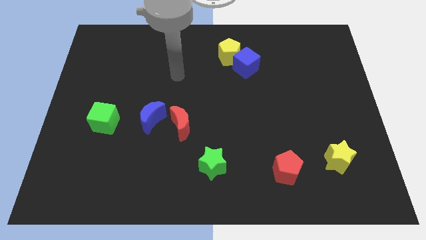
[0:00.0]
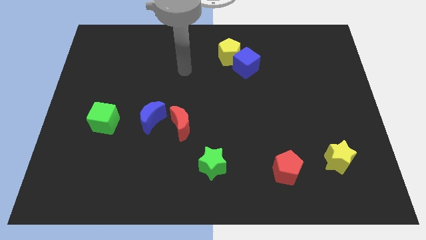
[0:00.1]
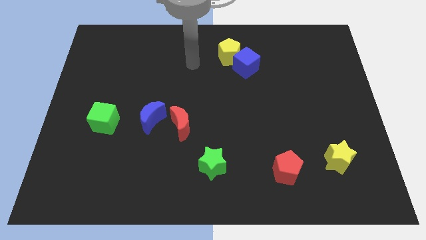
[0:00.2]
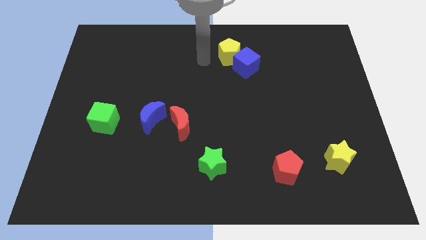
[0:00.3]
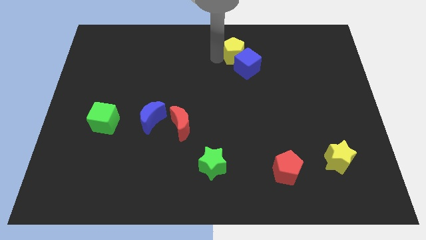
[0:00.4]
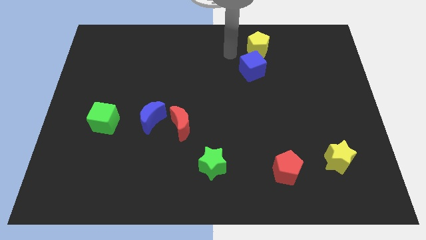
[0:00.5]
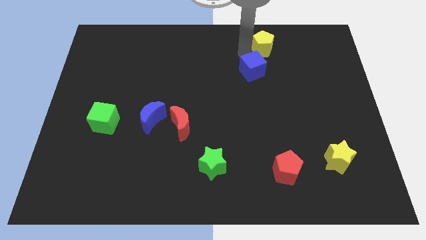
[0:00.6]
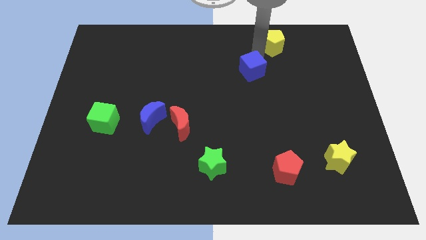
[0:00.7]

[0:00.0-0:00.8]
move the blue cube away from the yellow pentagon

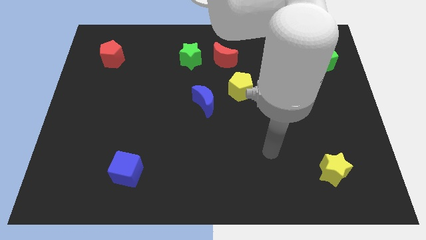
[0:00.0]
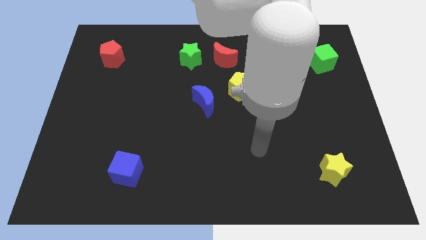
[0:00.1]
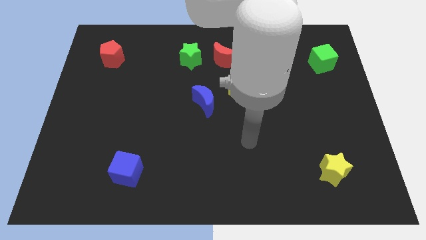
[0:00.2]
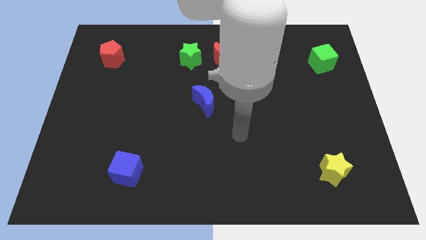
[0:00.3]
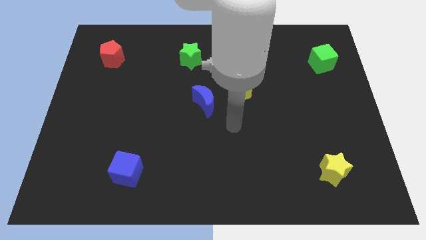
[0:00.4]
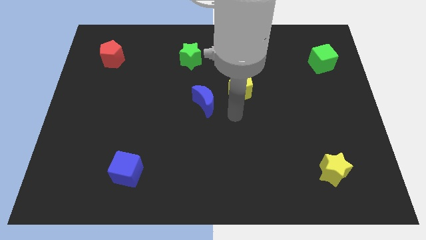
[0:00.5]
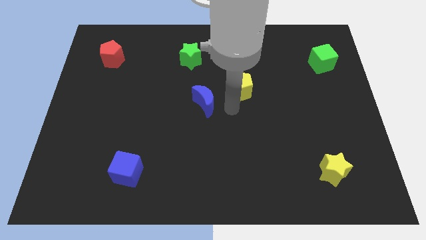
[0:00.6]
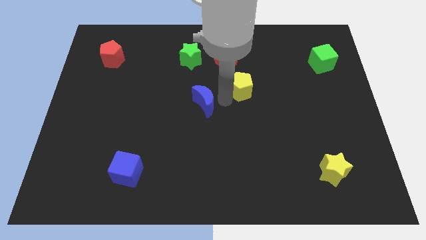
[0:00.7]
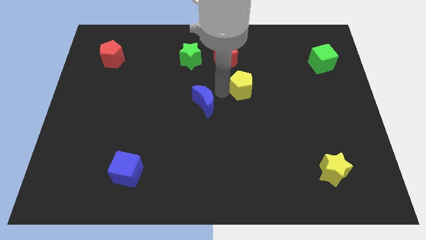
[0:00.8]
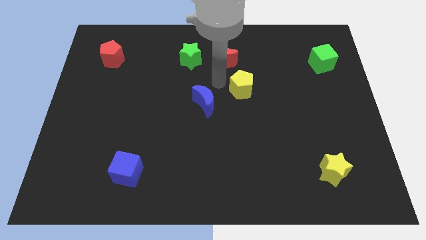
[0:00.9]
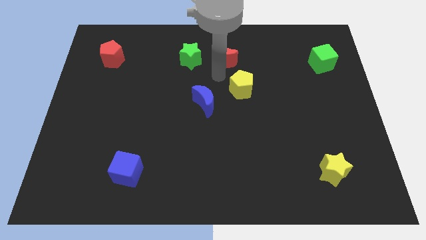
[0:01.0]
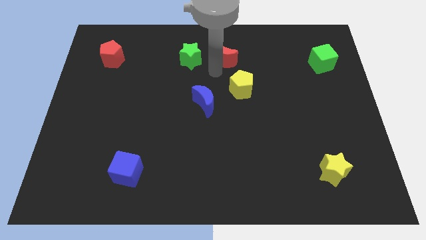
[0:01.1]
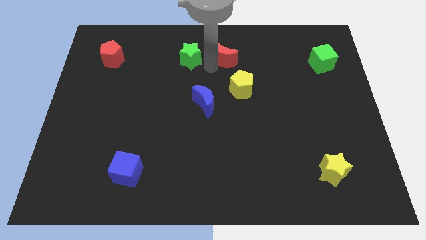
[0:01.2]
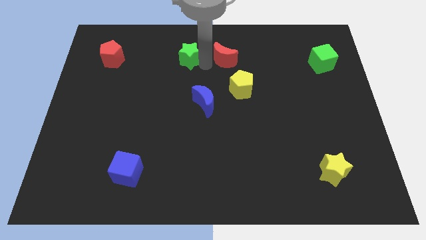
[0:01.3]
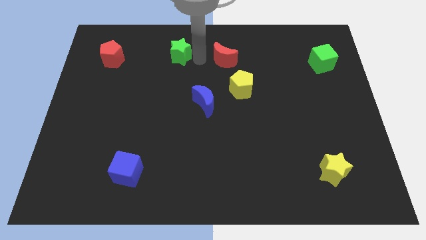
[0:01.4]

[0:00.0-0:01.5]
move the red moon away from the green star

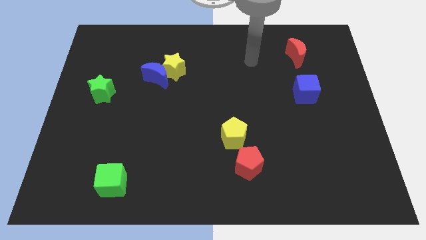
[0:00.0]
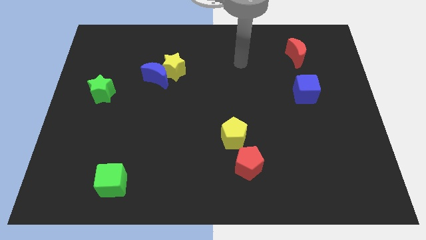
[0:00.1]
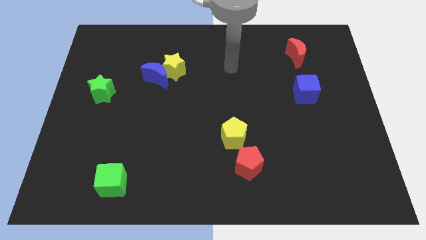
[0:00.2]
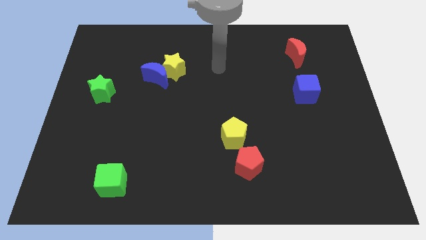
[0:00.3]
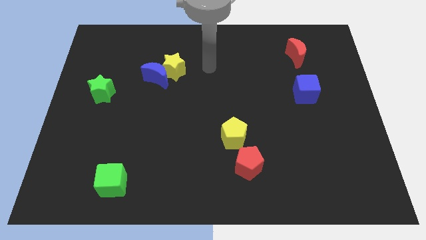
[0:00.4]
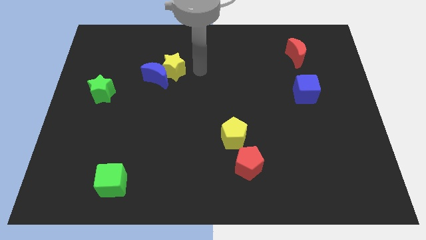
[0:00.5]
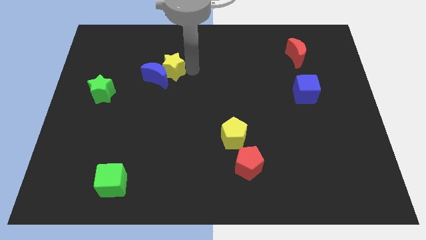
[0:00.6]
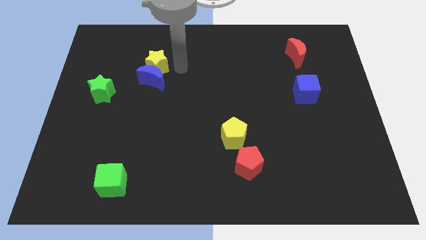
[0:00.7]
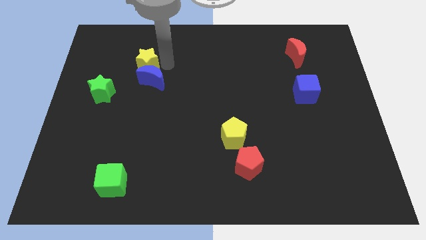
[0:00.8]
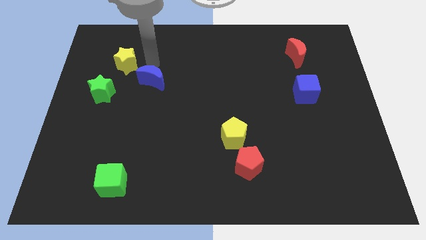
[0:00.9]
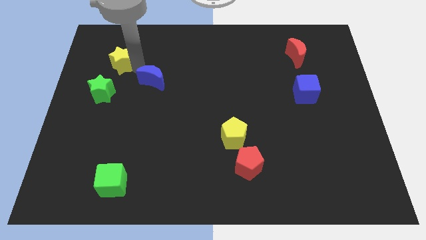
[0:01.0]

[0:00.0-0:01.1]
move the blue moon away from the yellow star

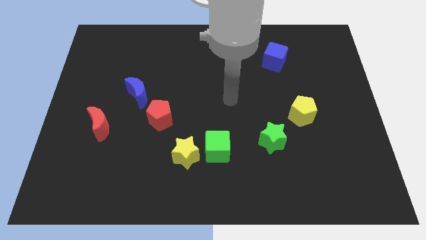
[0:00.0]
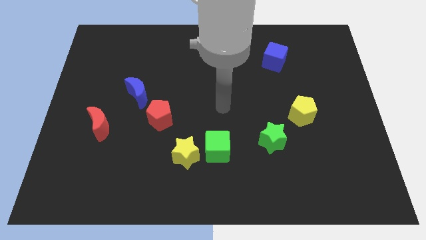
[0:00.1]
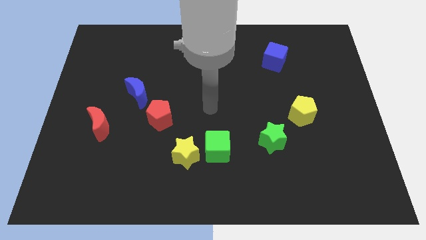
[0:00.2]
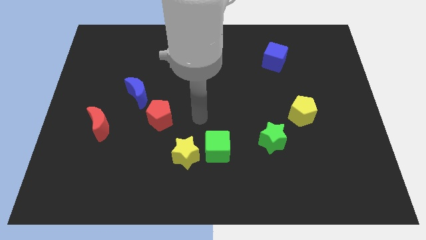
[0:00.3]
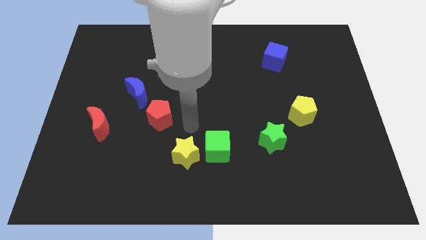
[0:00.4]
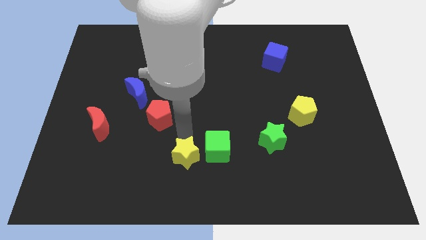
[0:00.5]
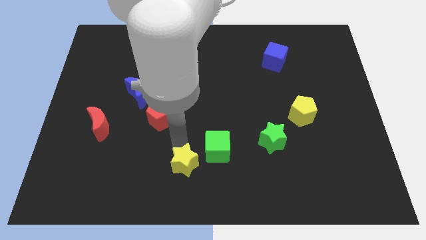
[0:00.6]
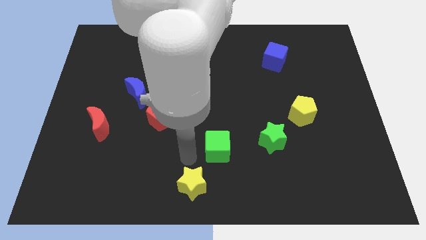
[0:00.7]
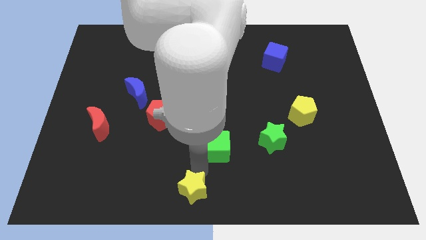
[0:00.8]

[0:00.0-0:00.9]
move the green cube away from the yellow star

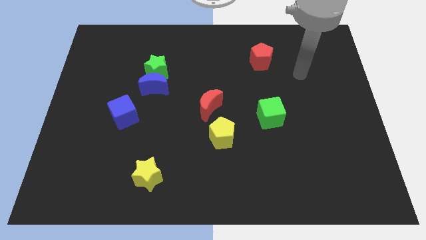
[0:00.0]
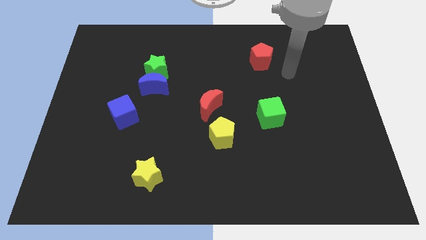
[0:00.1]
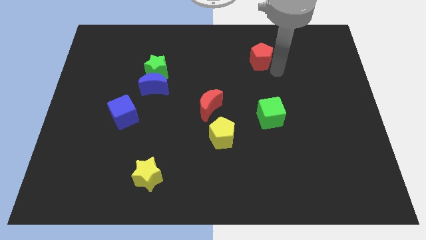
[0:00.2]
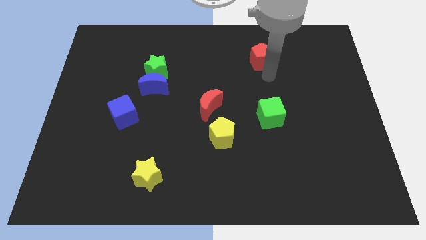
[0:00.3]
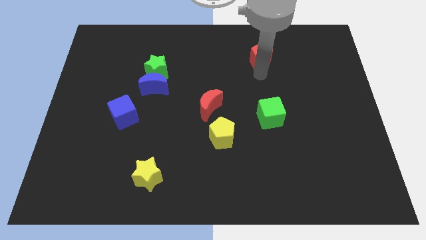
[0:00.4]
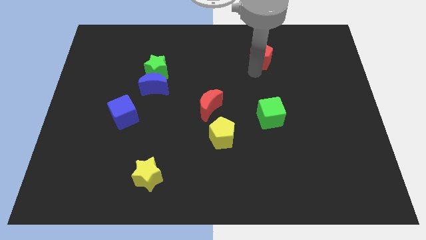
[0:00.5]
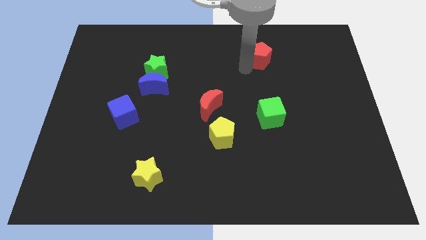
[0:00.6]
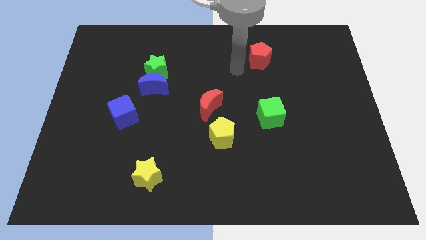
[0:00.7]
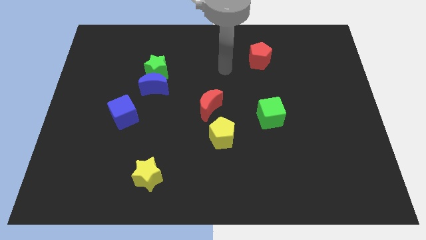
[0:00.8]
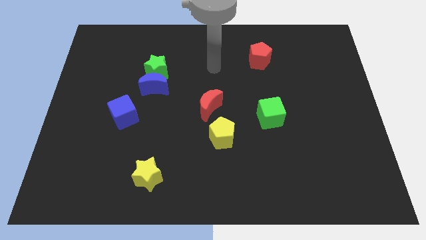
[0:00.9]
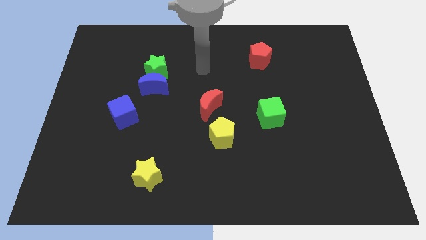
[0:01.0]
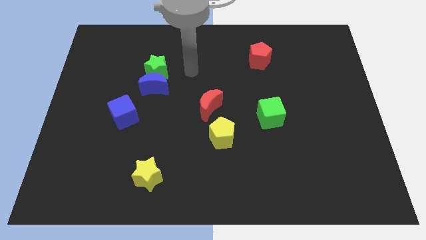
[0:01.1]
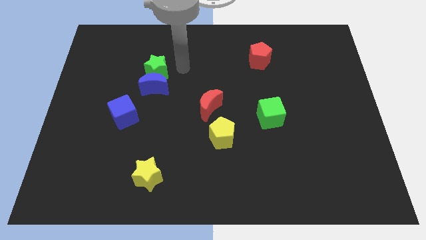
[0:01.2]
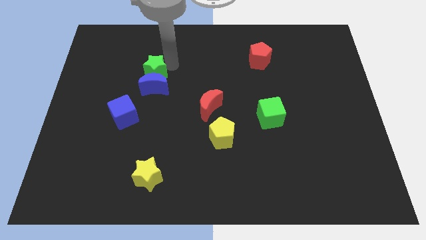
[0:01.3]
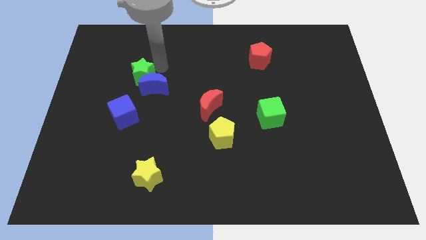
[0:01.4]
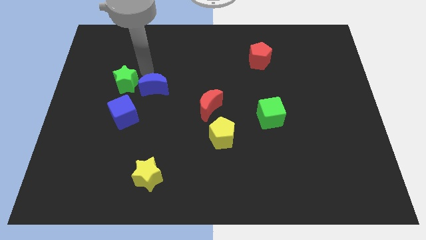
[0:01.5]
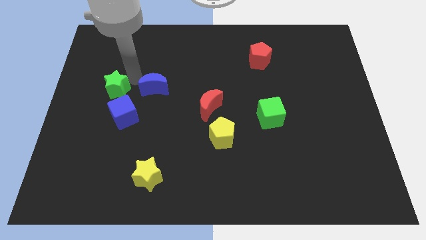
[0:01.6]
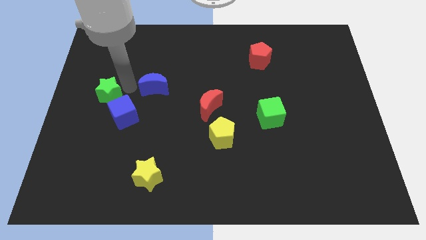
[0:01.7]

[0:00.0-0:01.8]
pull the blue moon apart from the green star

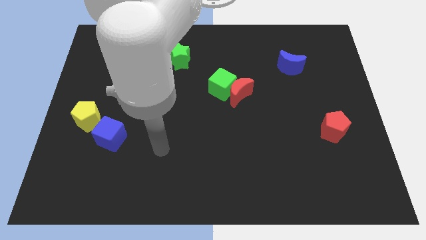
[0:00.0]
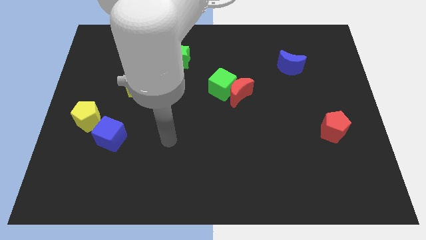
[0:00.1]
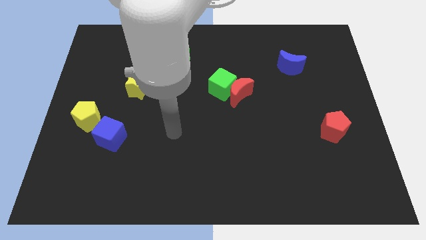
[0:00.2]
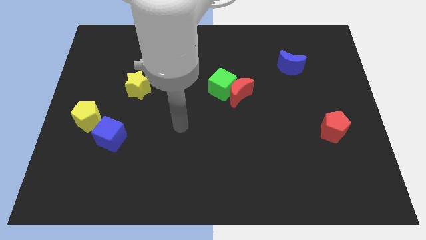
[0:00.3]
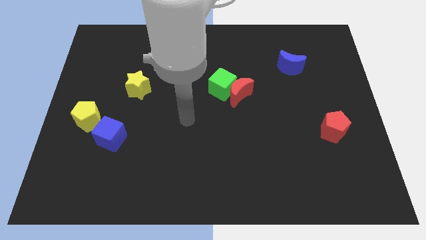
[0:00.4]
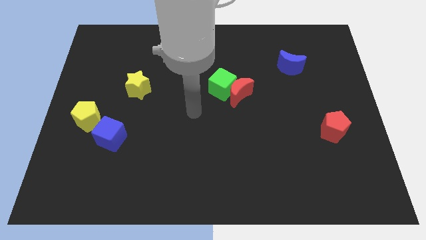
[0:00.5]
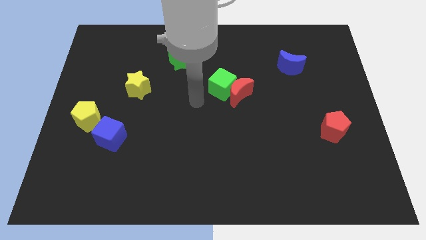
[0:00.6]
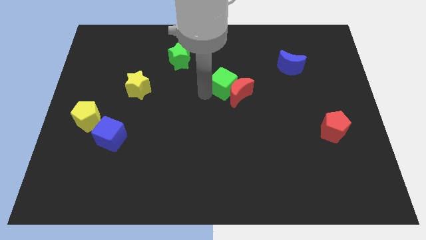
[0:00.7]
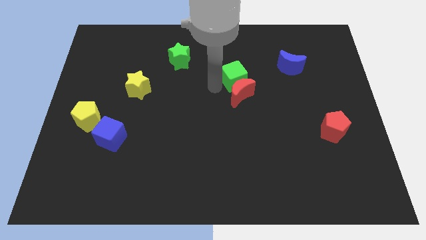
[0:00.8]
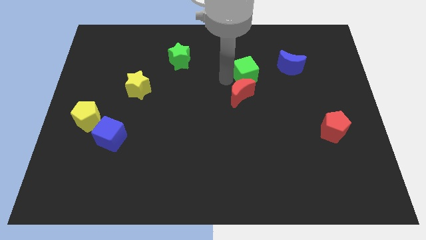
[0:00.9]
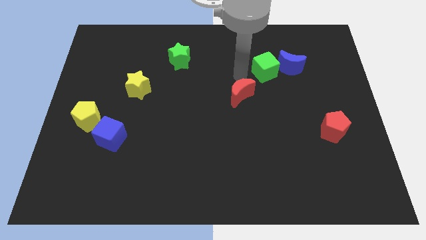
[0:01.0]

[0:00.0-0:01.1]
separate the red moon from the green cube

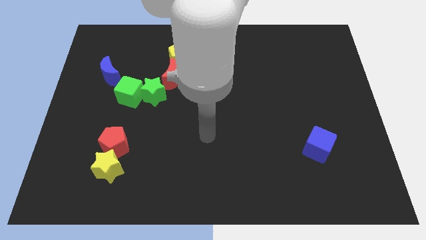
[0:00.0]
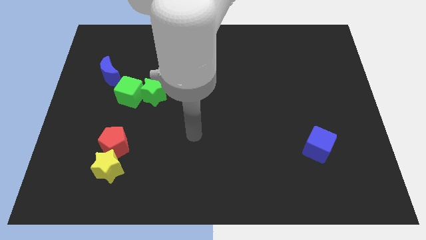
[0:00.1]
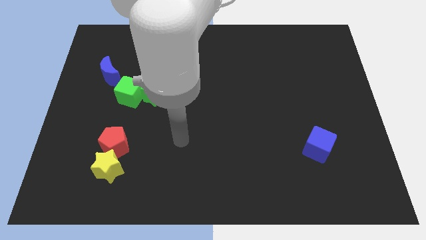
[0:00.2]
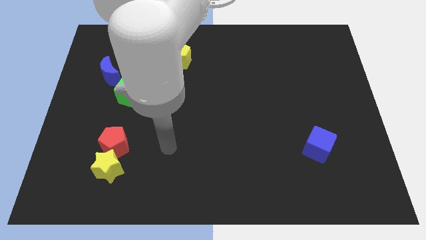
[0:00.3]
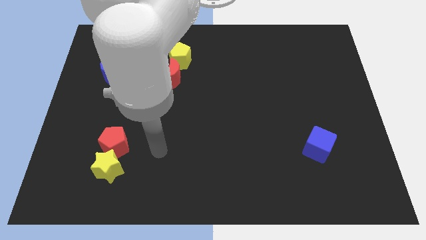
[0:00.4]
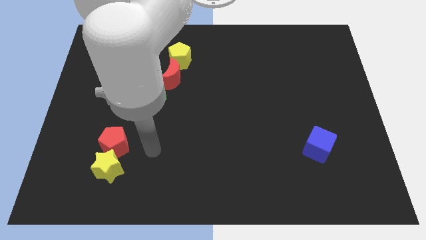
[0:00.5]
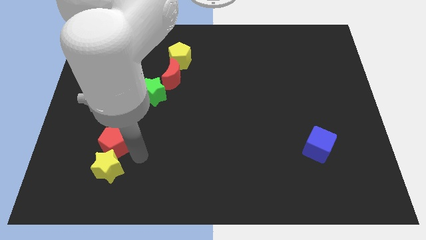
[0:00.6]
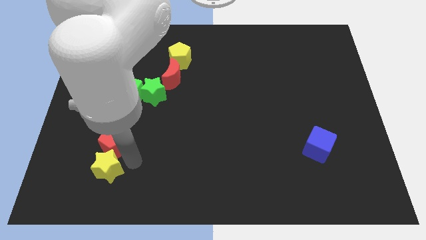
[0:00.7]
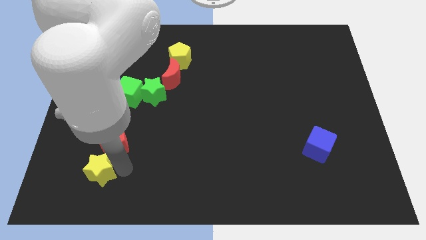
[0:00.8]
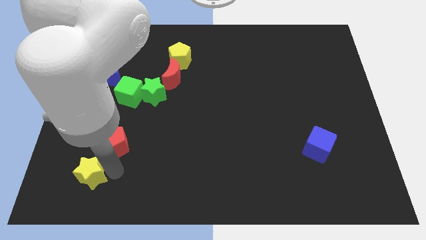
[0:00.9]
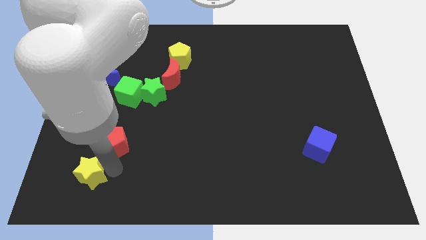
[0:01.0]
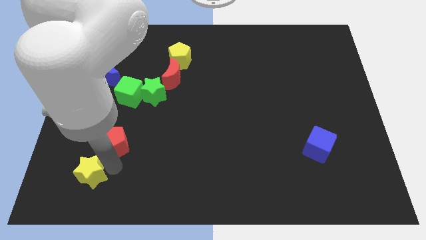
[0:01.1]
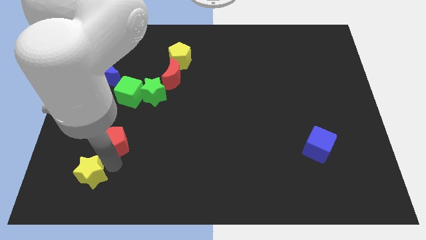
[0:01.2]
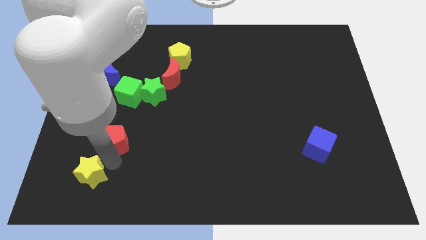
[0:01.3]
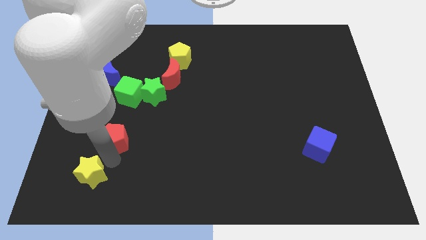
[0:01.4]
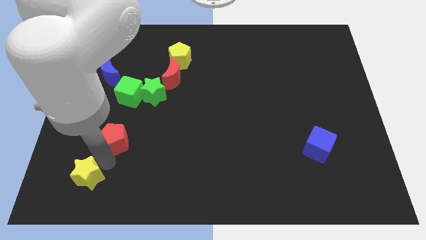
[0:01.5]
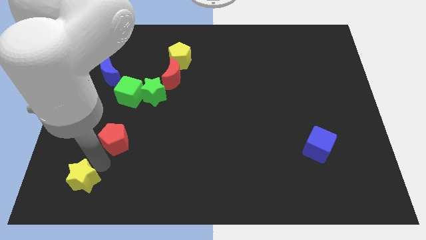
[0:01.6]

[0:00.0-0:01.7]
move the red pentagon away from the yellow star

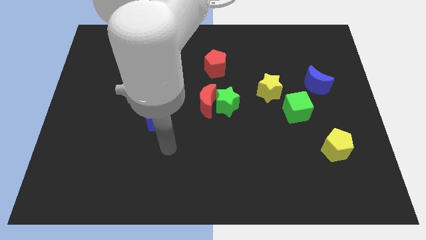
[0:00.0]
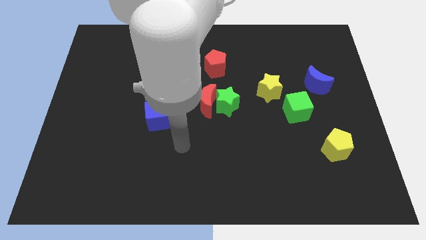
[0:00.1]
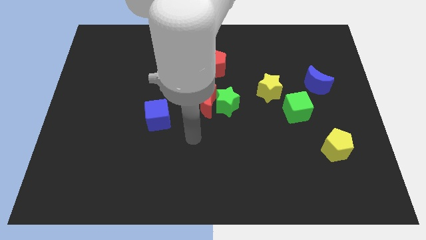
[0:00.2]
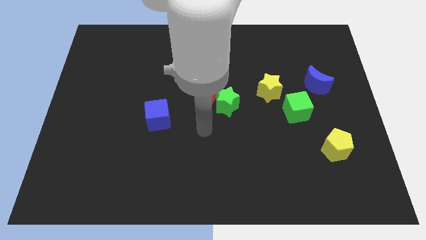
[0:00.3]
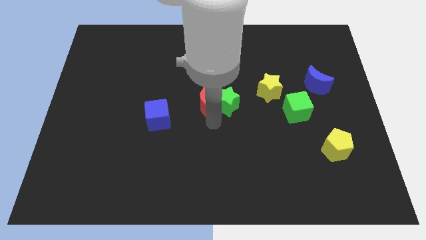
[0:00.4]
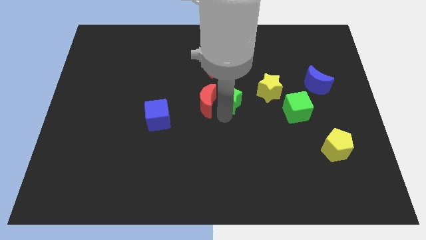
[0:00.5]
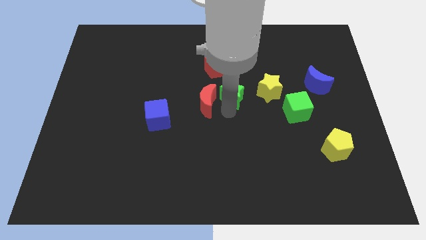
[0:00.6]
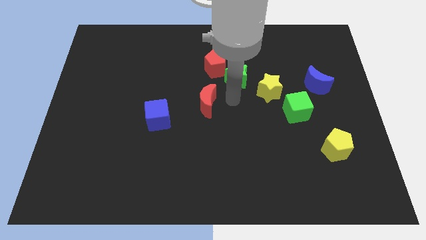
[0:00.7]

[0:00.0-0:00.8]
separate the red moon from the green star
